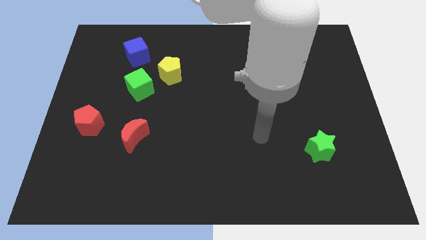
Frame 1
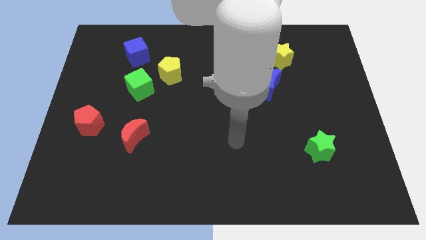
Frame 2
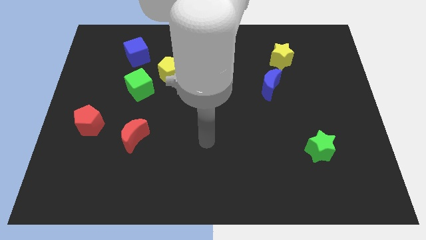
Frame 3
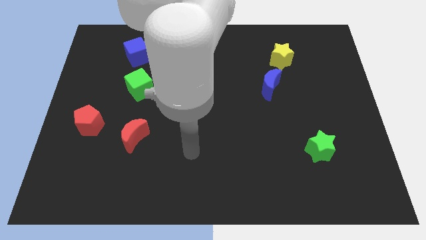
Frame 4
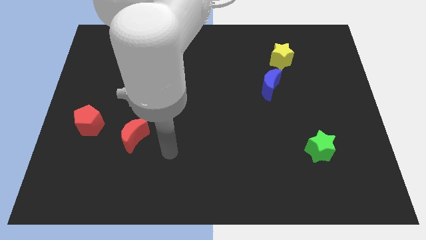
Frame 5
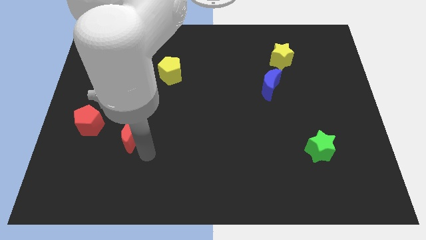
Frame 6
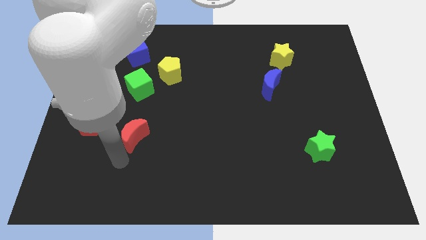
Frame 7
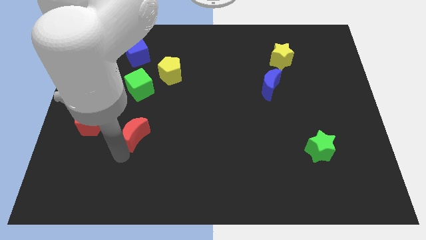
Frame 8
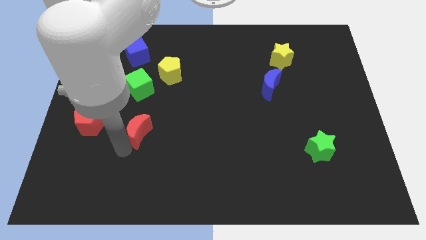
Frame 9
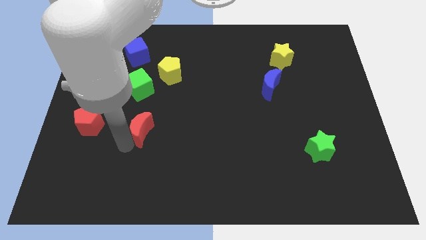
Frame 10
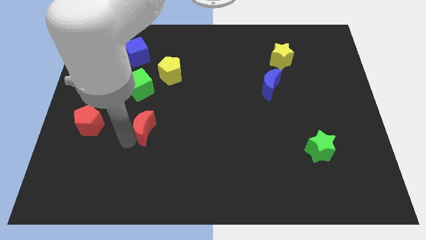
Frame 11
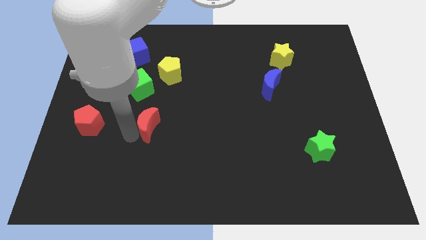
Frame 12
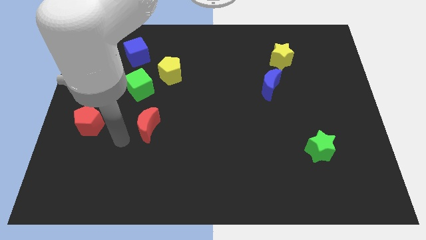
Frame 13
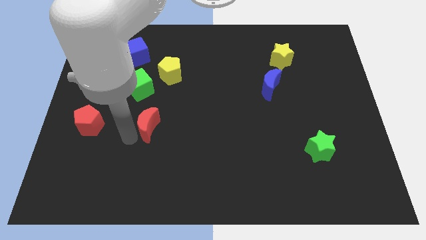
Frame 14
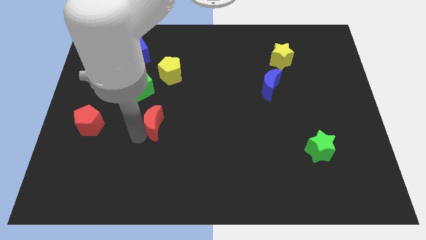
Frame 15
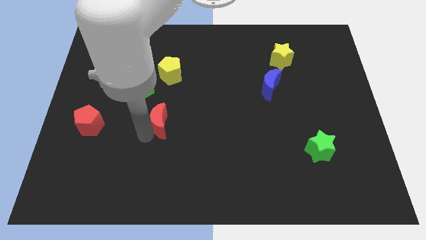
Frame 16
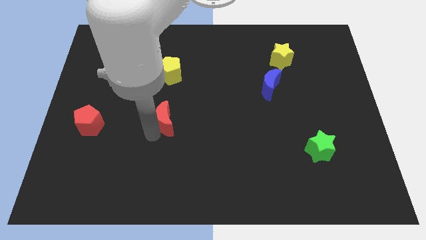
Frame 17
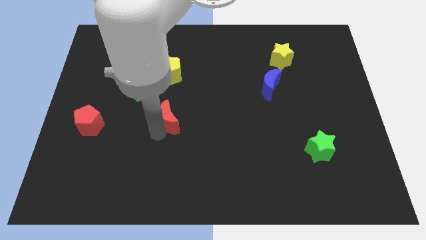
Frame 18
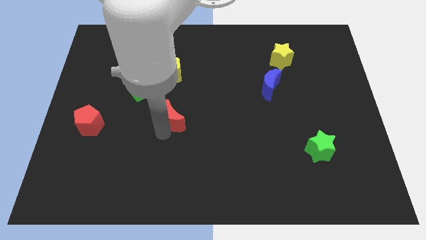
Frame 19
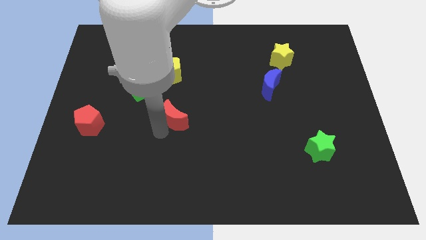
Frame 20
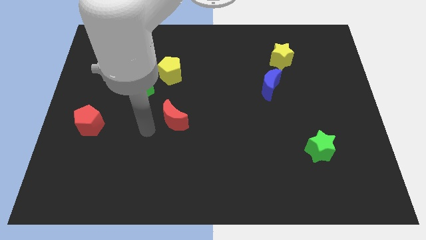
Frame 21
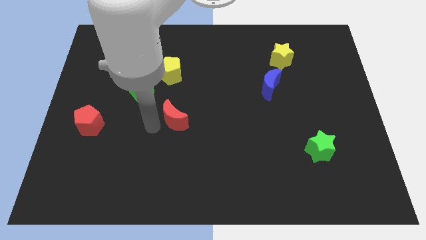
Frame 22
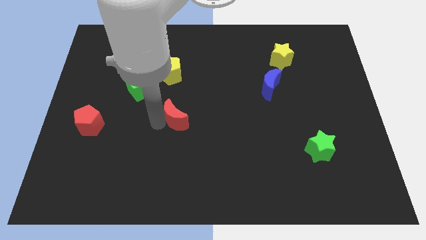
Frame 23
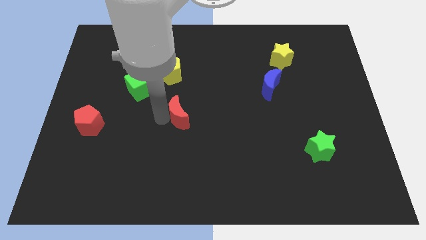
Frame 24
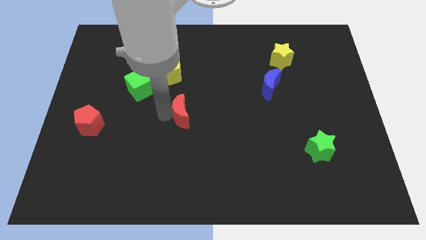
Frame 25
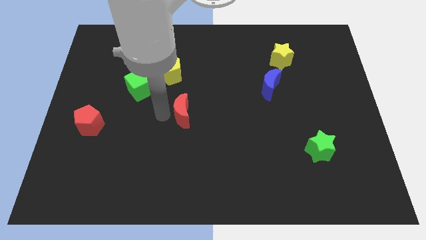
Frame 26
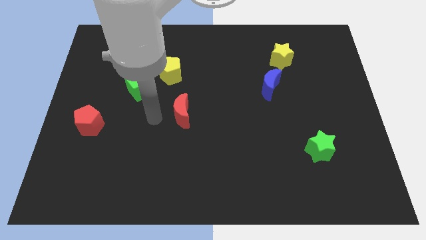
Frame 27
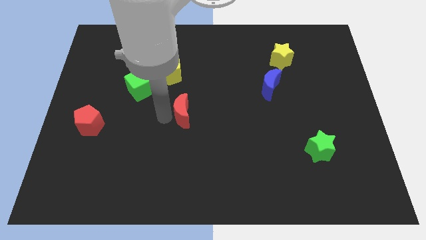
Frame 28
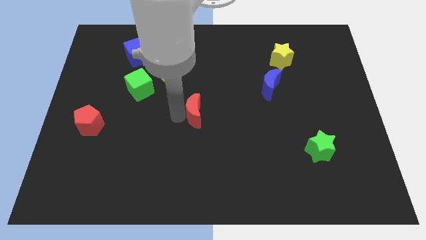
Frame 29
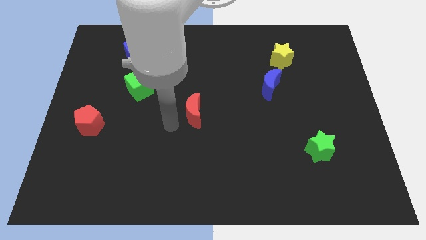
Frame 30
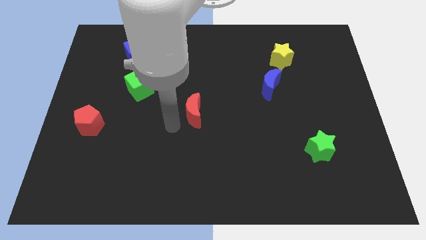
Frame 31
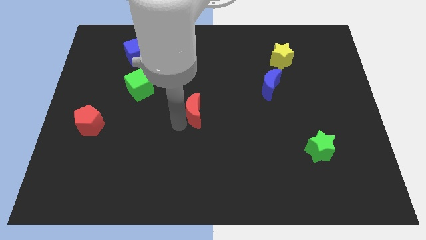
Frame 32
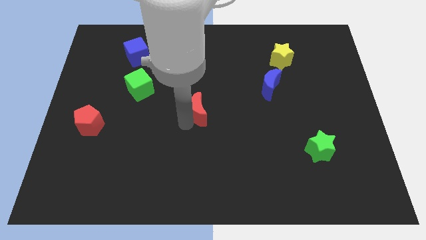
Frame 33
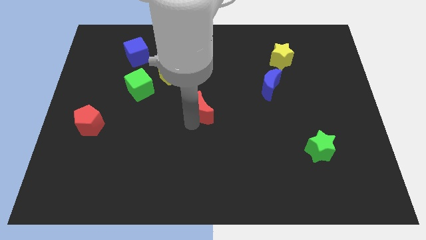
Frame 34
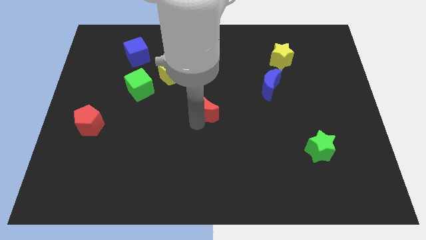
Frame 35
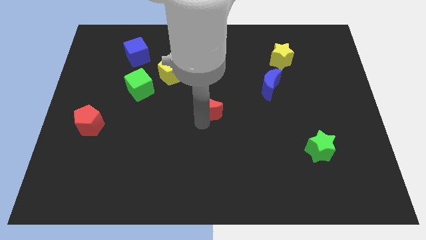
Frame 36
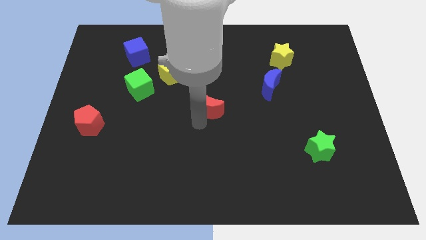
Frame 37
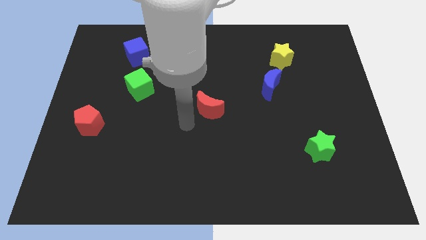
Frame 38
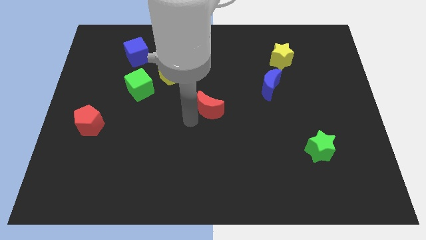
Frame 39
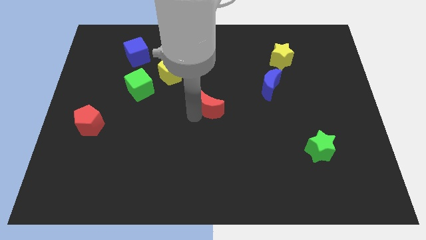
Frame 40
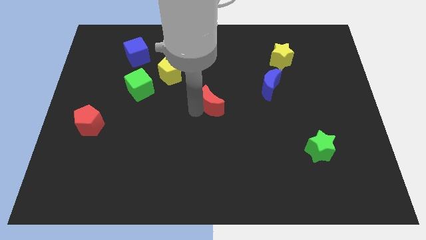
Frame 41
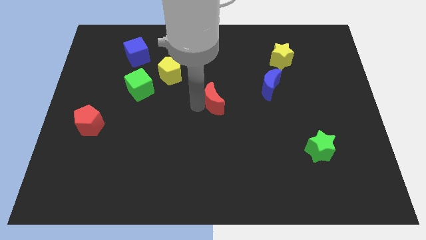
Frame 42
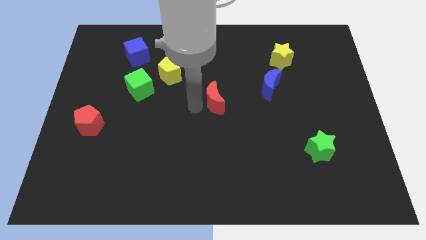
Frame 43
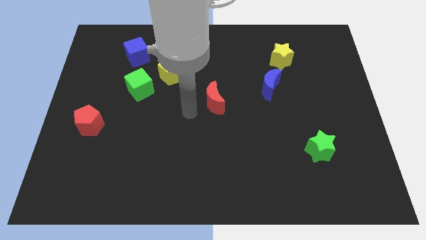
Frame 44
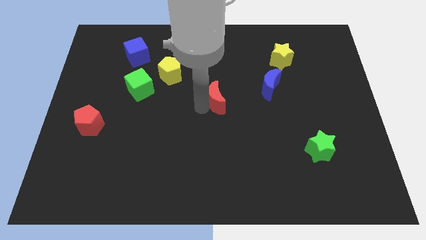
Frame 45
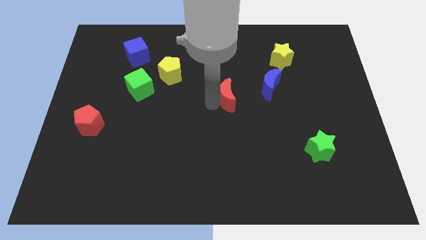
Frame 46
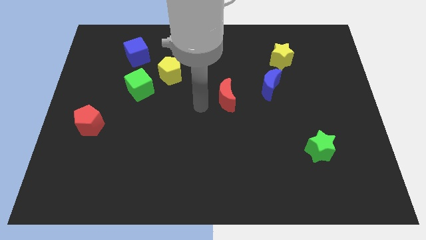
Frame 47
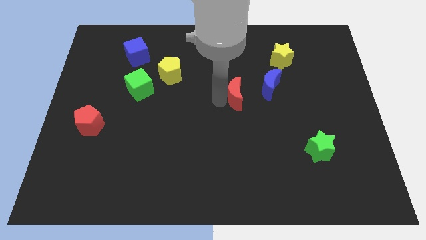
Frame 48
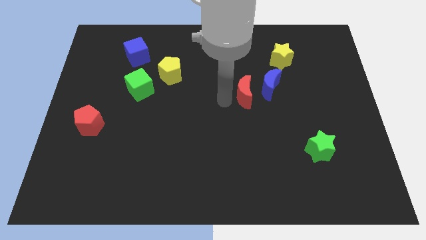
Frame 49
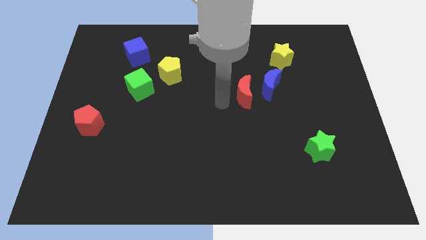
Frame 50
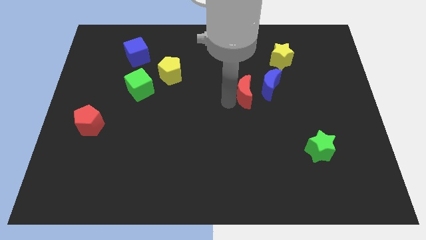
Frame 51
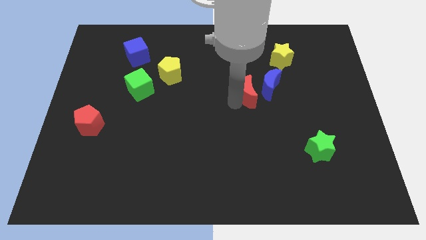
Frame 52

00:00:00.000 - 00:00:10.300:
put the red moon close to the blue moon

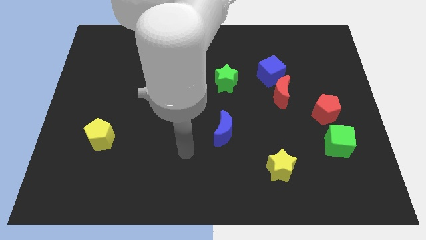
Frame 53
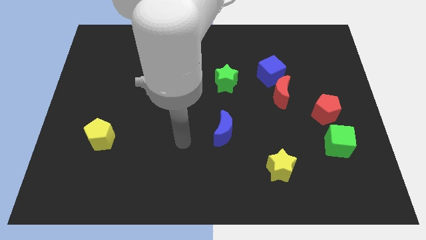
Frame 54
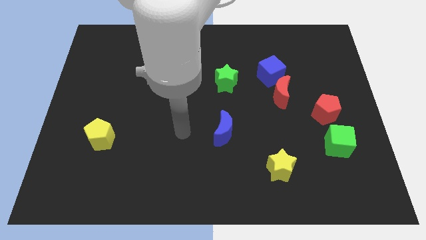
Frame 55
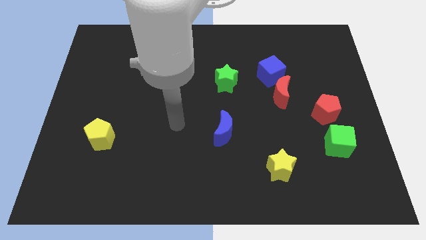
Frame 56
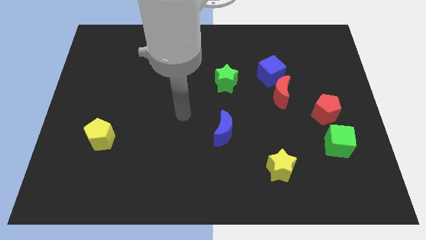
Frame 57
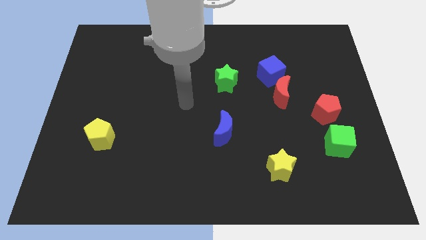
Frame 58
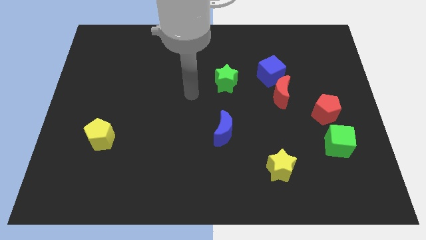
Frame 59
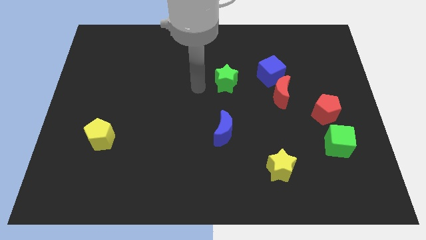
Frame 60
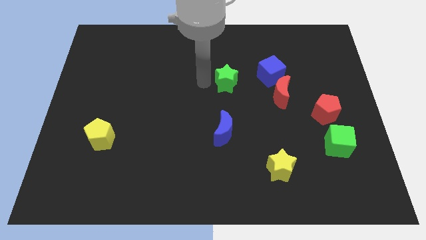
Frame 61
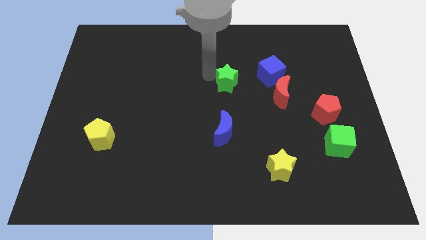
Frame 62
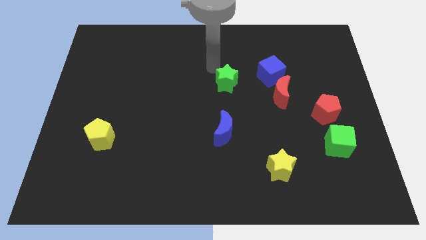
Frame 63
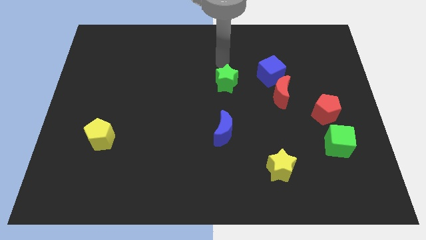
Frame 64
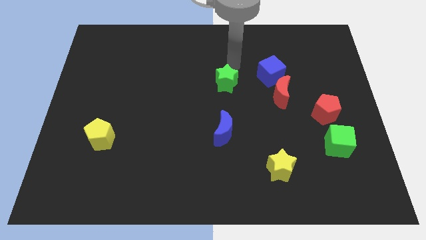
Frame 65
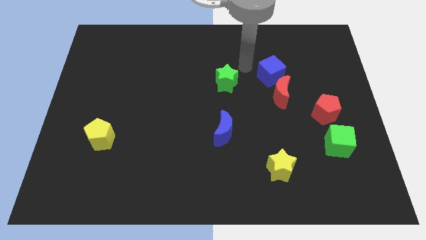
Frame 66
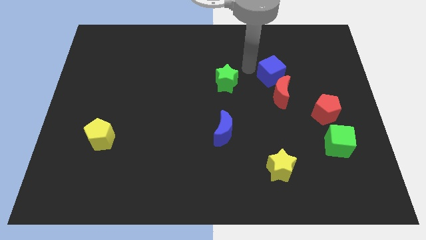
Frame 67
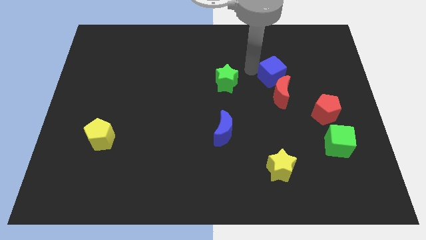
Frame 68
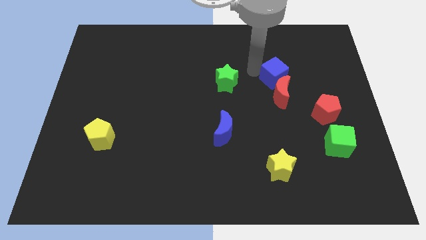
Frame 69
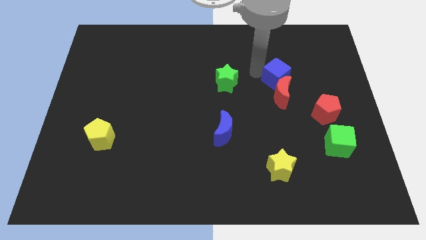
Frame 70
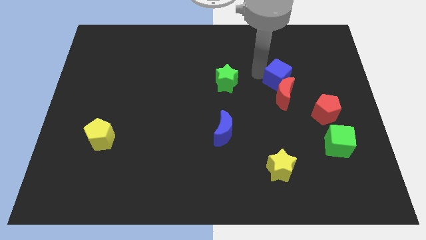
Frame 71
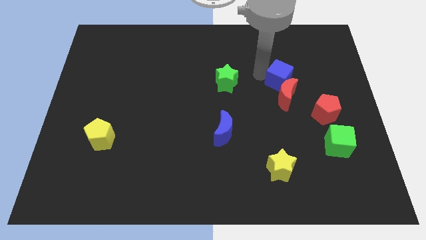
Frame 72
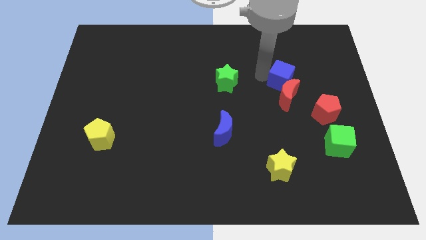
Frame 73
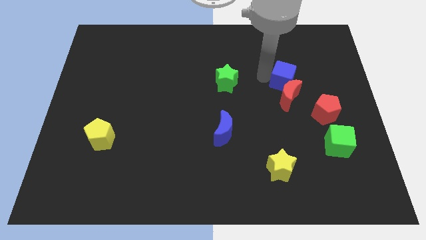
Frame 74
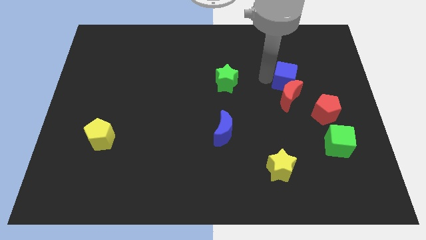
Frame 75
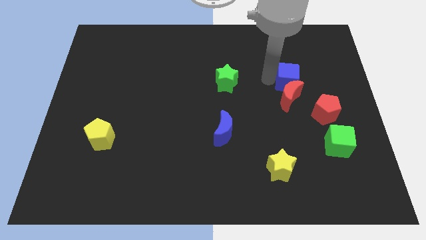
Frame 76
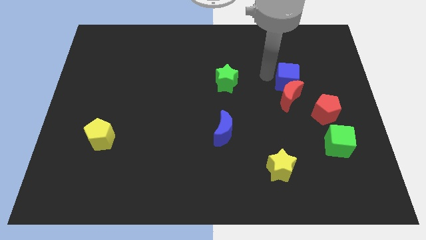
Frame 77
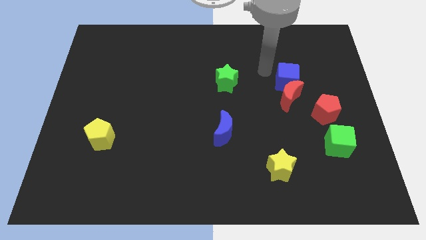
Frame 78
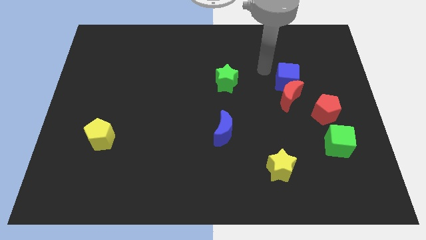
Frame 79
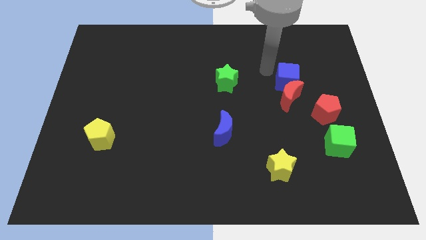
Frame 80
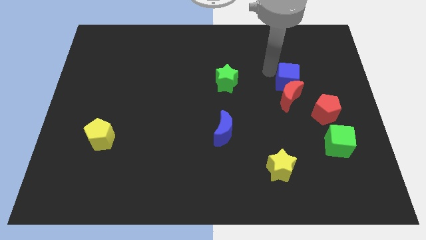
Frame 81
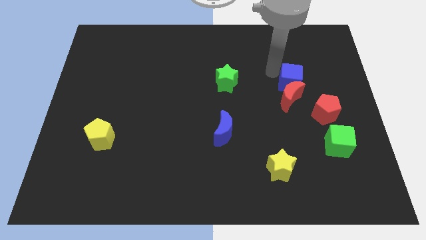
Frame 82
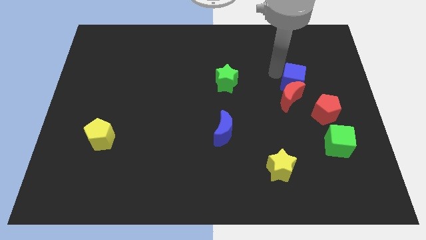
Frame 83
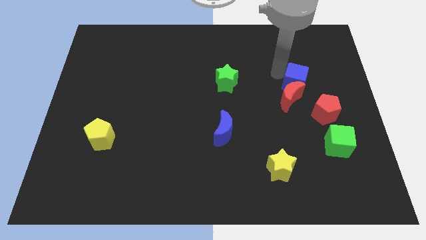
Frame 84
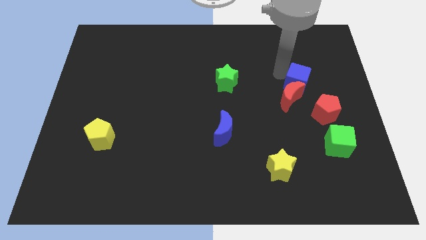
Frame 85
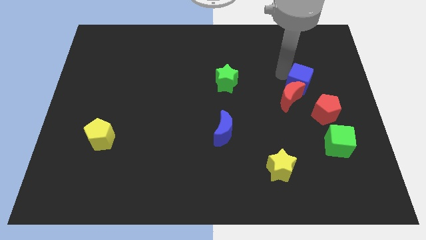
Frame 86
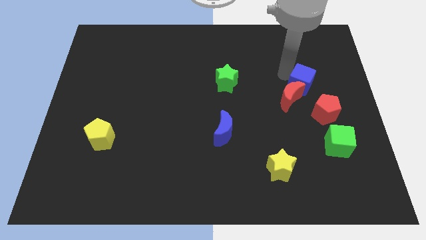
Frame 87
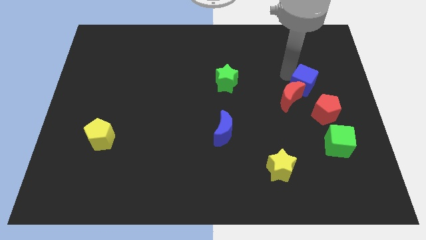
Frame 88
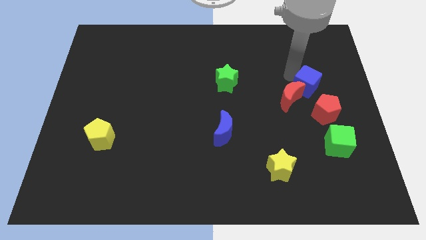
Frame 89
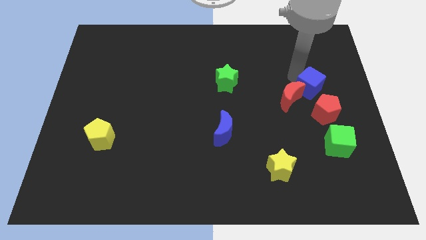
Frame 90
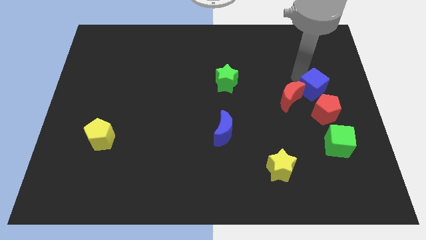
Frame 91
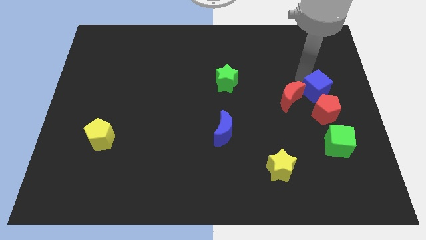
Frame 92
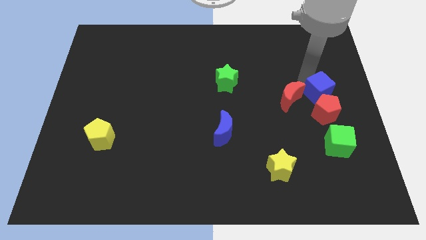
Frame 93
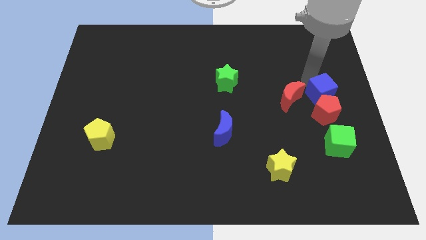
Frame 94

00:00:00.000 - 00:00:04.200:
put the blue cube to the red pentagon
